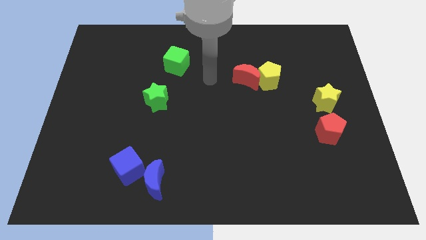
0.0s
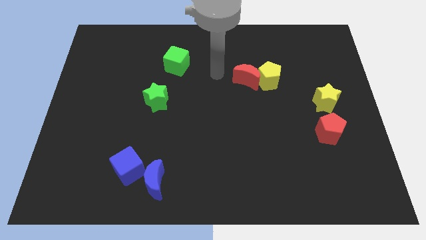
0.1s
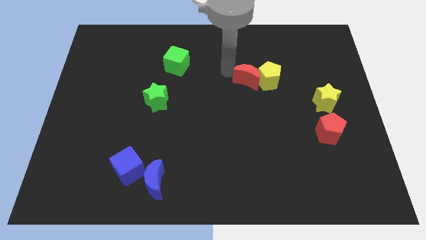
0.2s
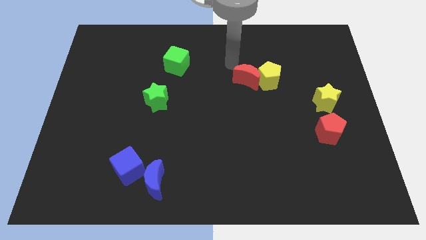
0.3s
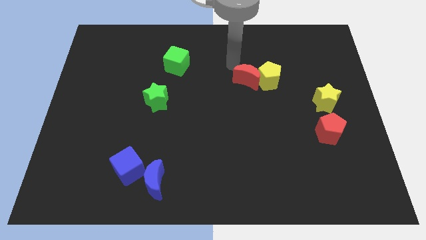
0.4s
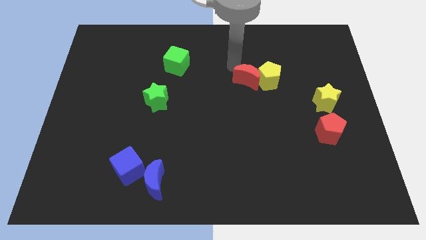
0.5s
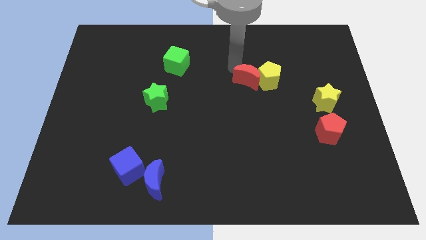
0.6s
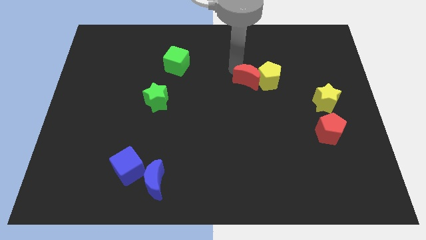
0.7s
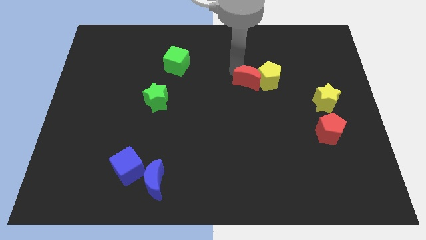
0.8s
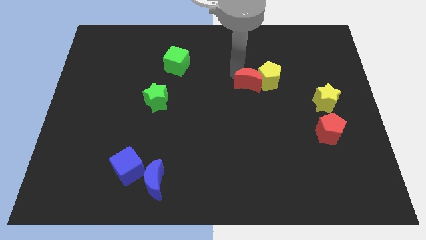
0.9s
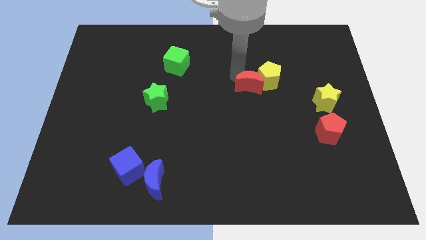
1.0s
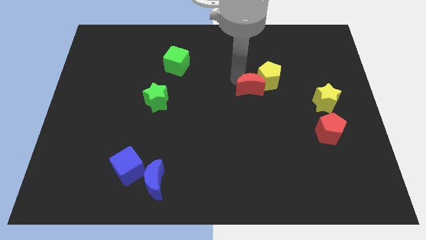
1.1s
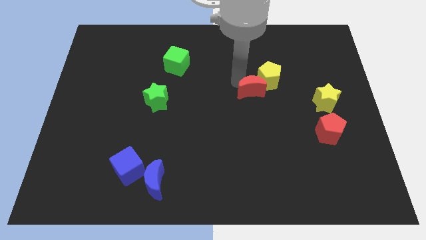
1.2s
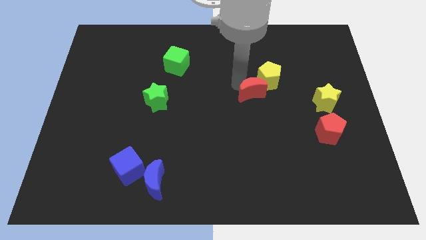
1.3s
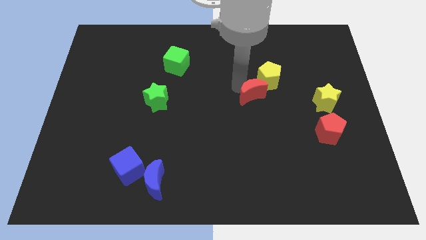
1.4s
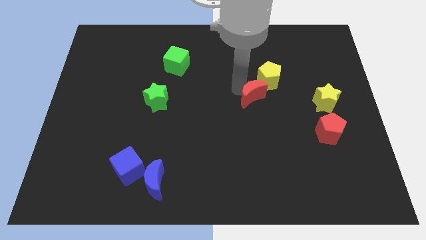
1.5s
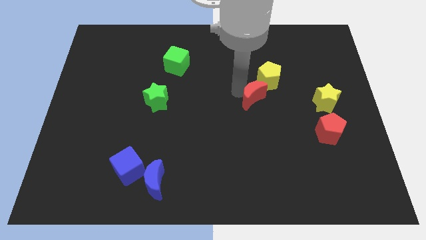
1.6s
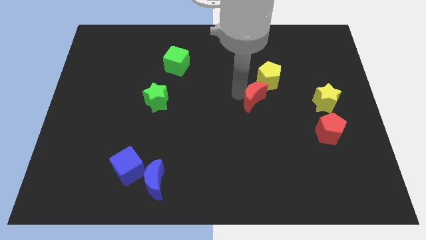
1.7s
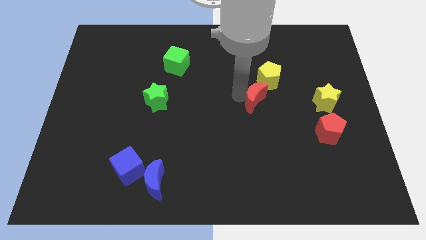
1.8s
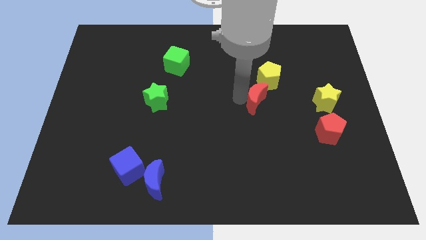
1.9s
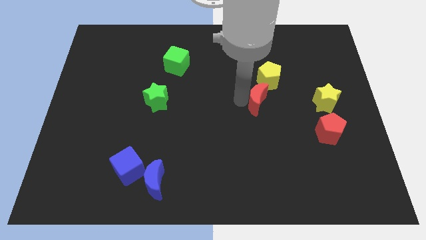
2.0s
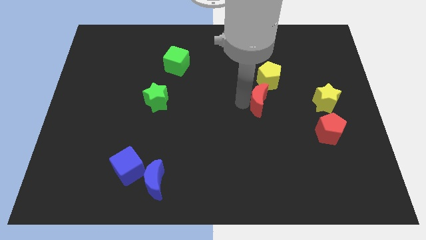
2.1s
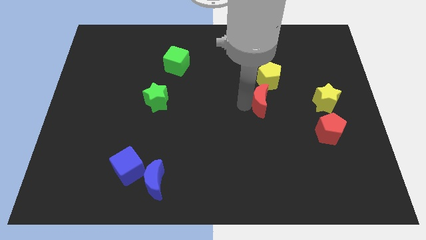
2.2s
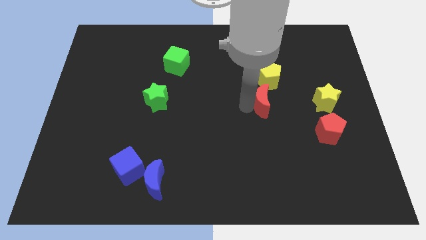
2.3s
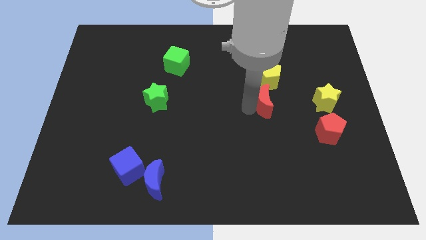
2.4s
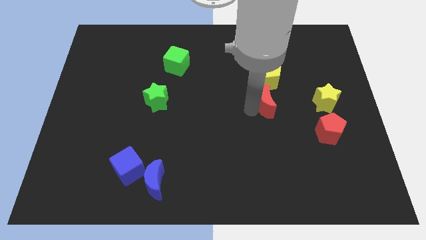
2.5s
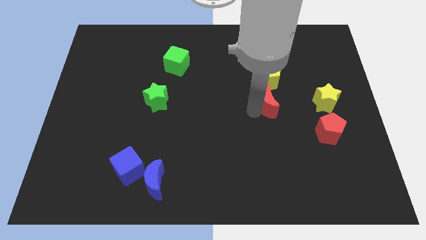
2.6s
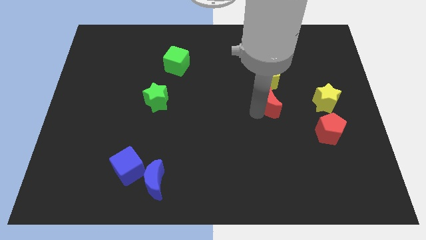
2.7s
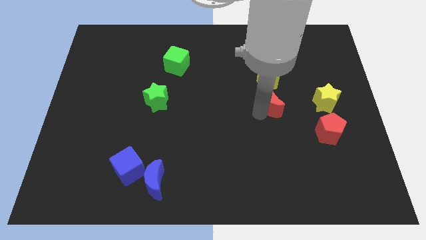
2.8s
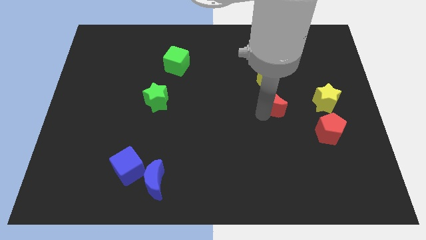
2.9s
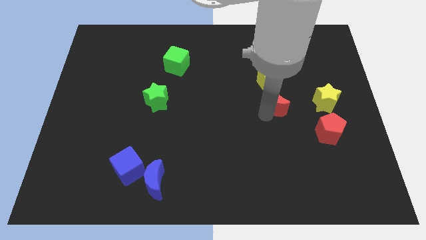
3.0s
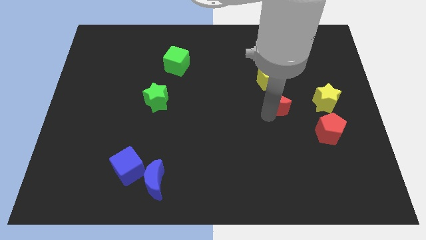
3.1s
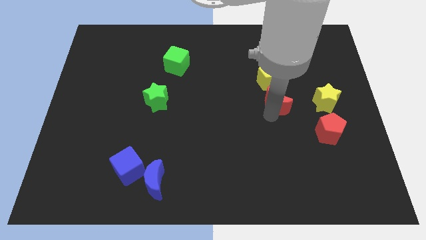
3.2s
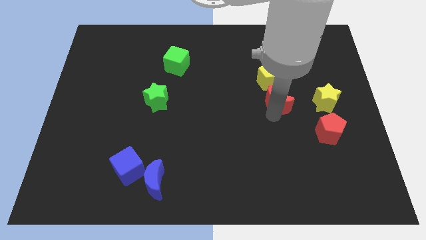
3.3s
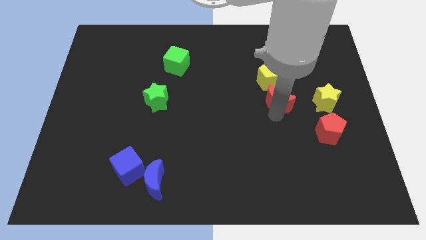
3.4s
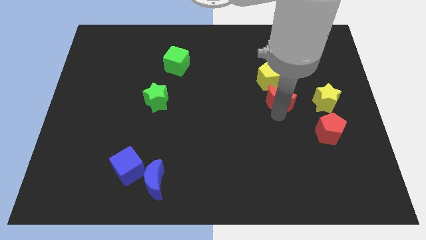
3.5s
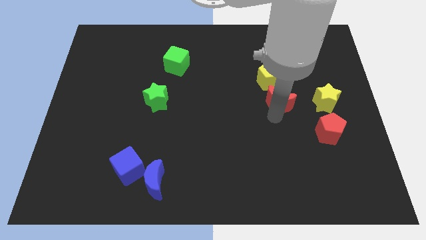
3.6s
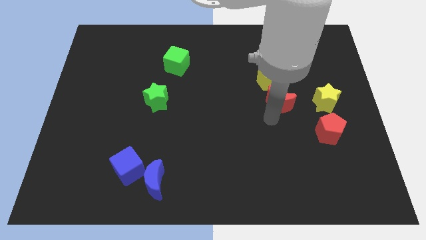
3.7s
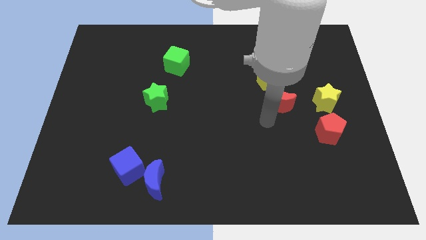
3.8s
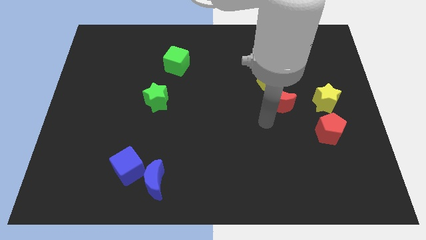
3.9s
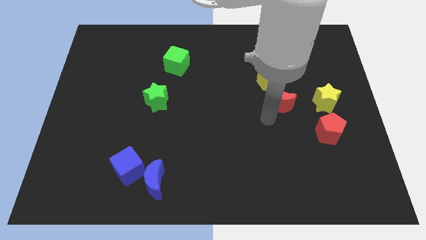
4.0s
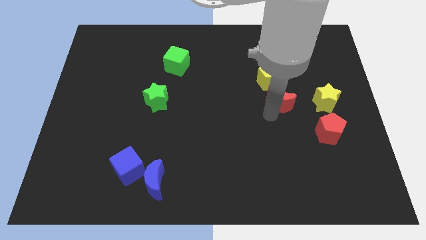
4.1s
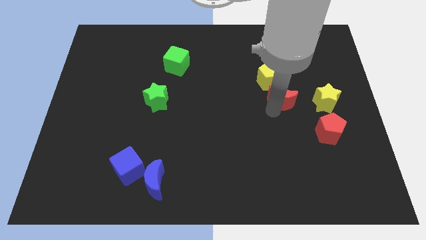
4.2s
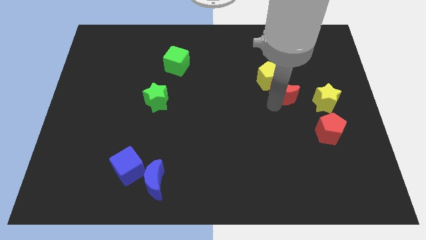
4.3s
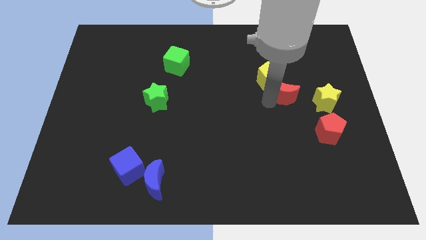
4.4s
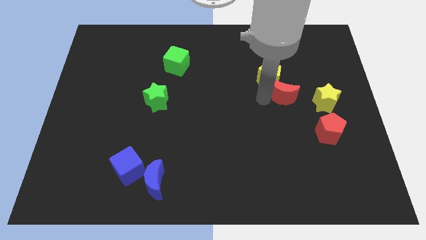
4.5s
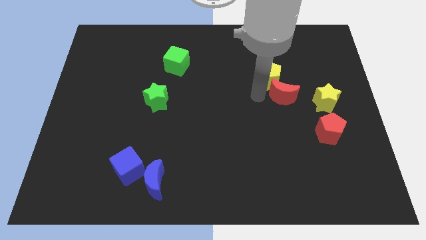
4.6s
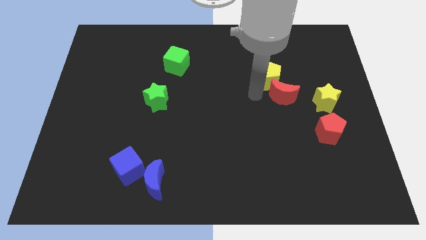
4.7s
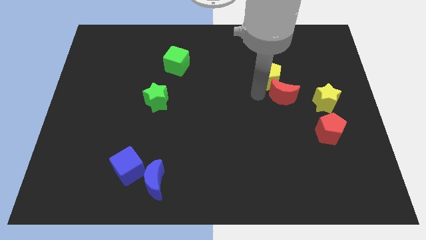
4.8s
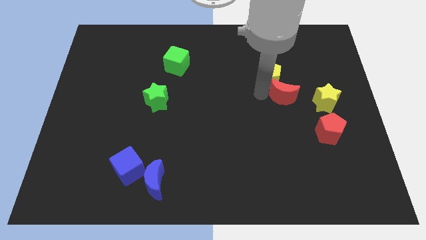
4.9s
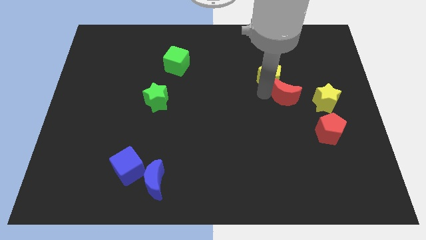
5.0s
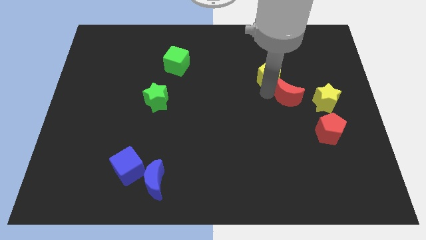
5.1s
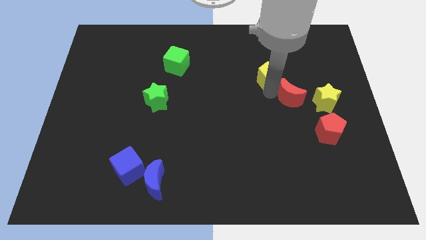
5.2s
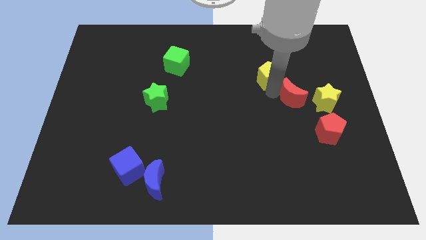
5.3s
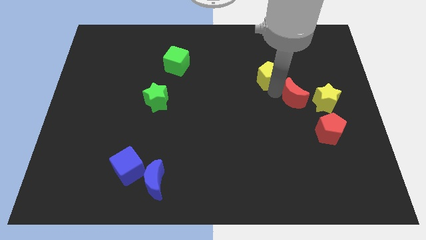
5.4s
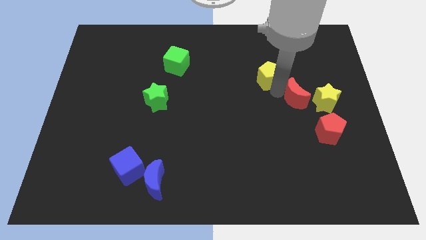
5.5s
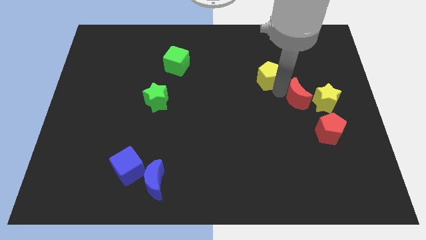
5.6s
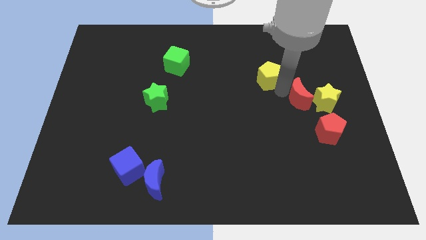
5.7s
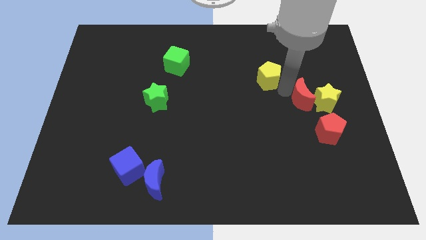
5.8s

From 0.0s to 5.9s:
move the red moon to the yellow star

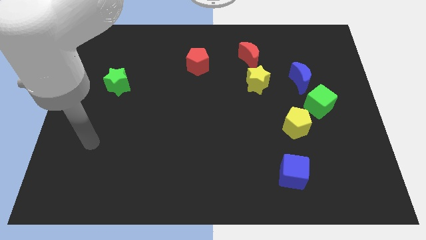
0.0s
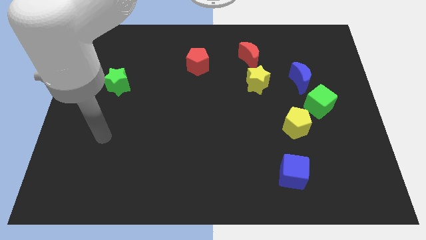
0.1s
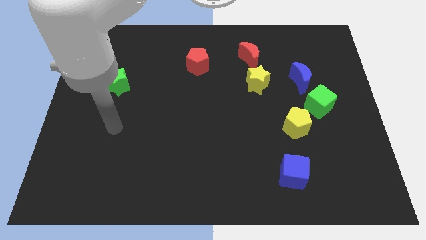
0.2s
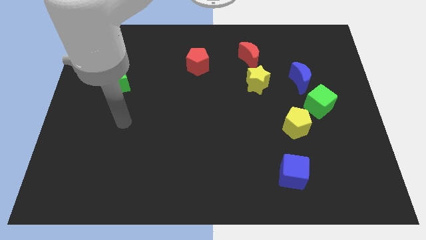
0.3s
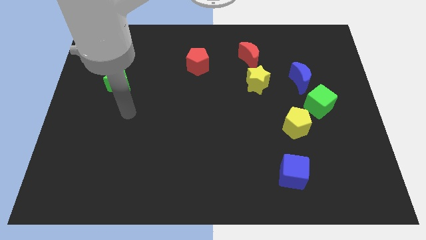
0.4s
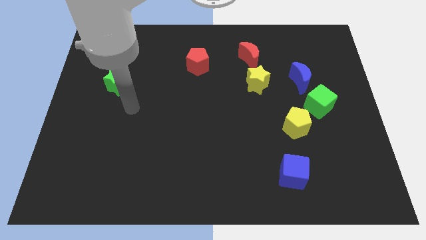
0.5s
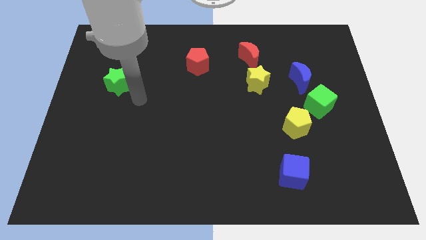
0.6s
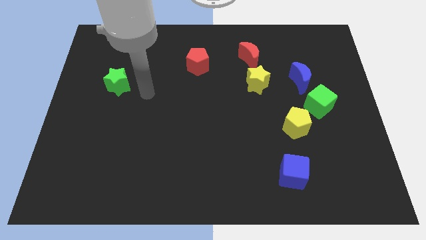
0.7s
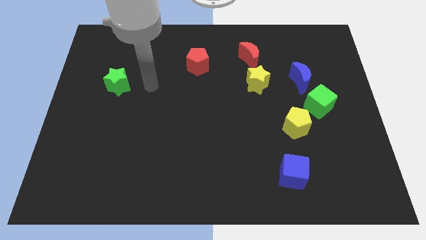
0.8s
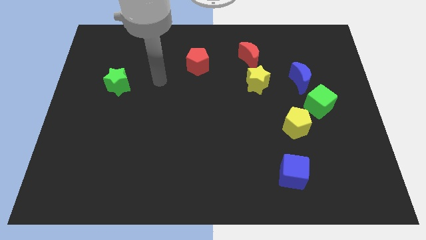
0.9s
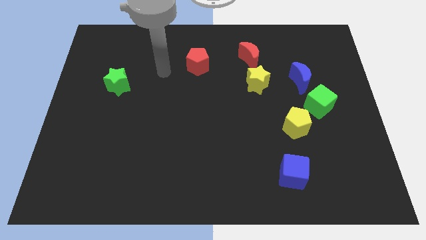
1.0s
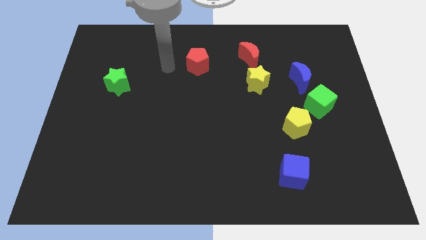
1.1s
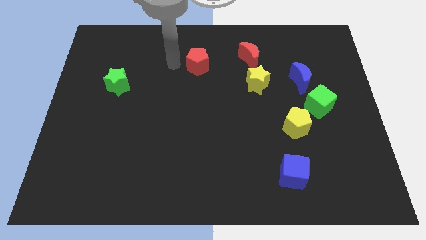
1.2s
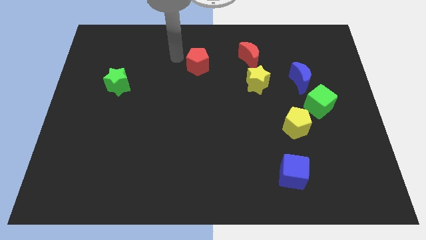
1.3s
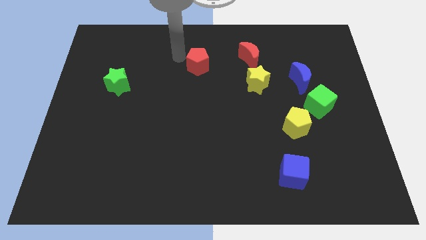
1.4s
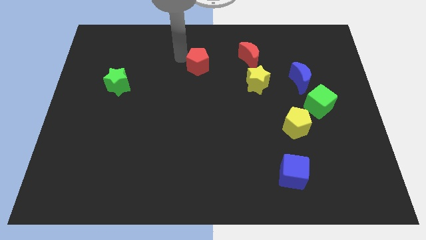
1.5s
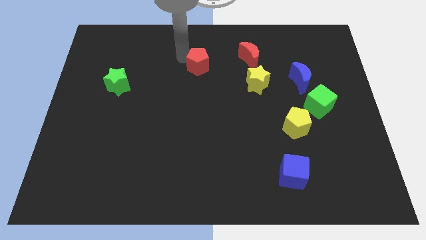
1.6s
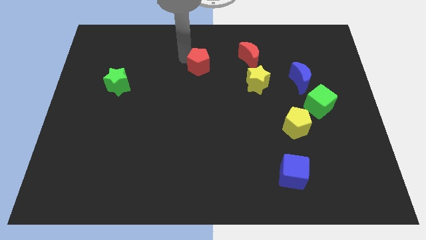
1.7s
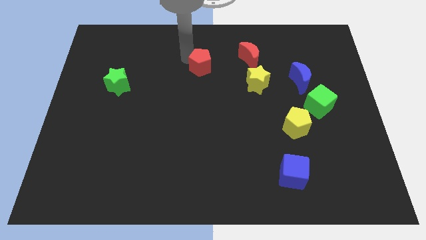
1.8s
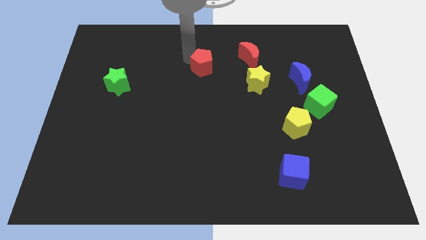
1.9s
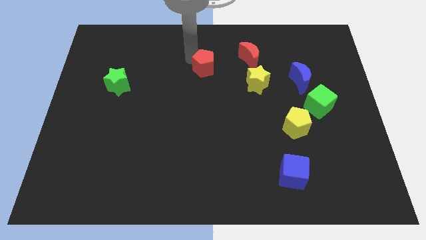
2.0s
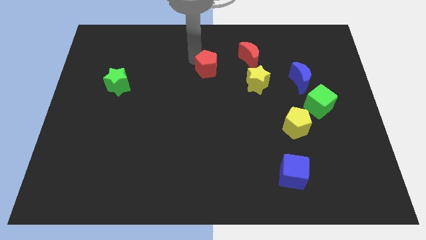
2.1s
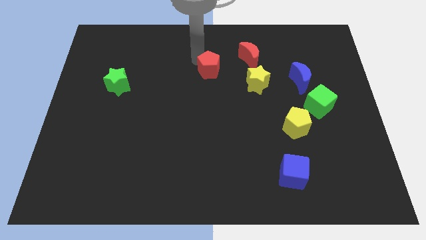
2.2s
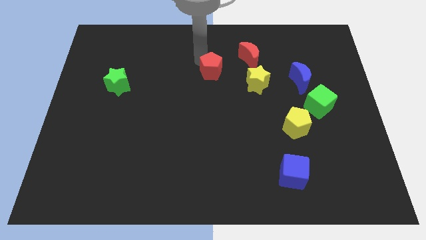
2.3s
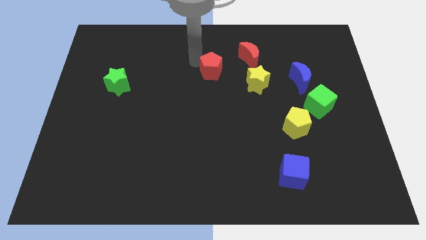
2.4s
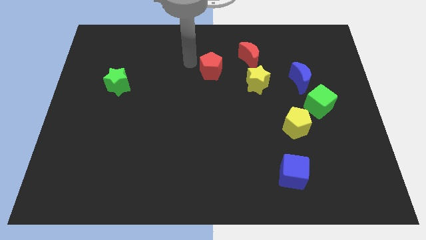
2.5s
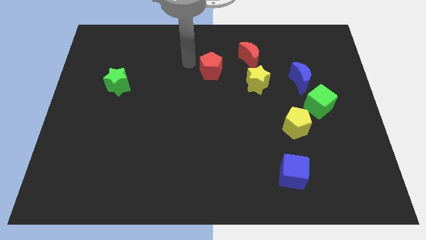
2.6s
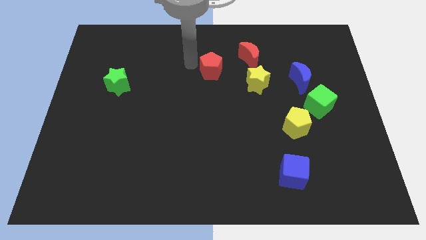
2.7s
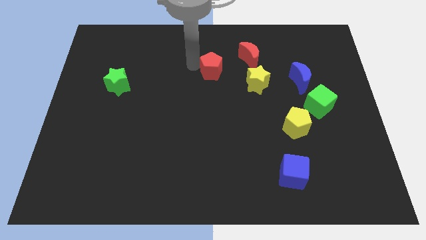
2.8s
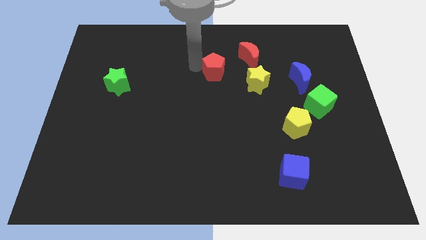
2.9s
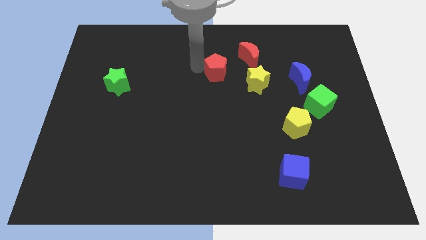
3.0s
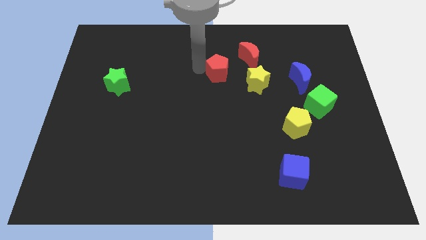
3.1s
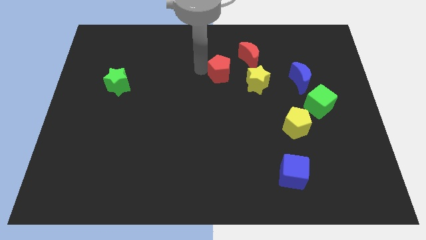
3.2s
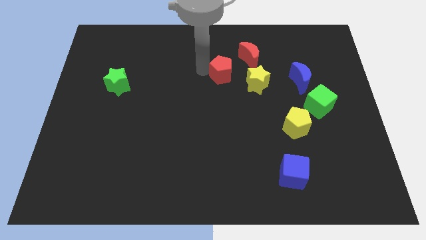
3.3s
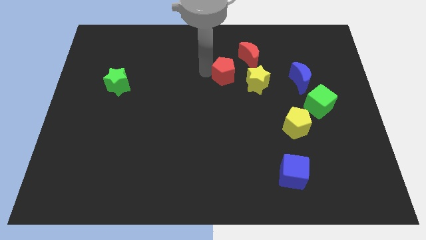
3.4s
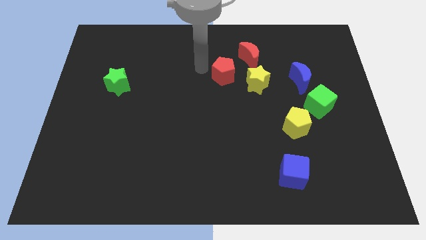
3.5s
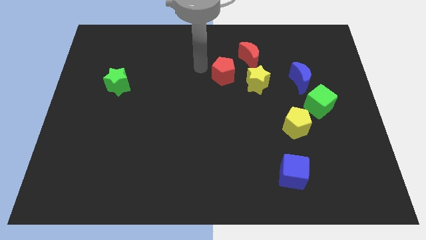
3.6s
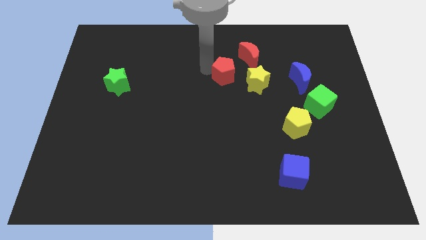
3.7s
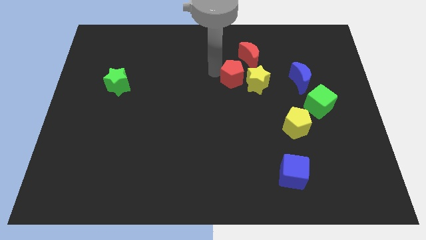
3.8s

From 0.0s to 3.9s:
put the red pentagon to the yellow star
